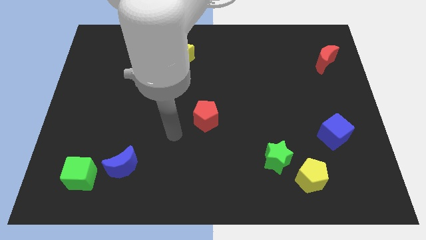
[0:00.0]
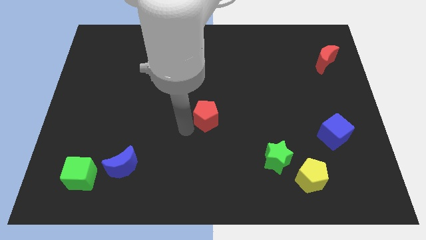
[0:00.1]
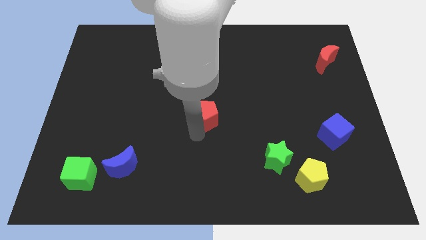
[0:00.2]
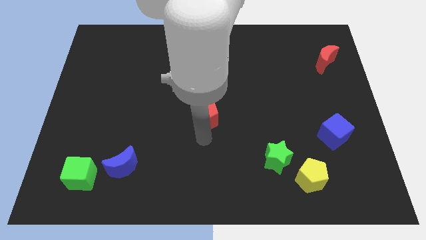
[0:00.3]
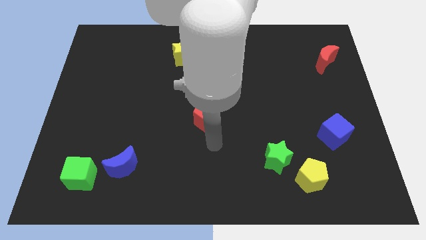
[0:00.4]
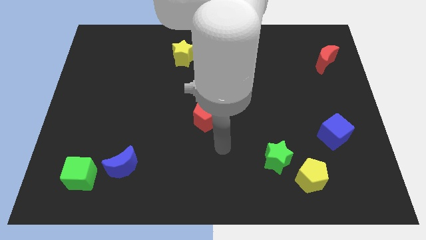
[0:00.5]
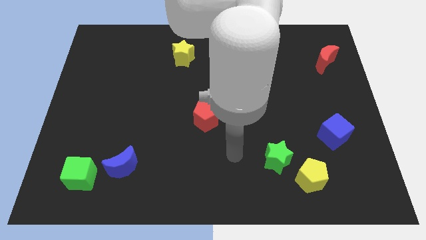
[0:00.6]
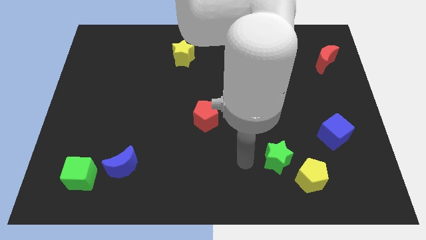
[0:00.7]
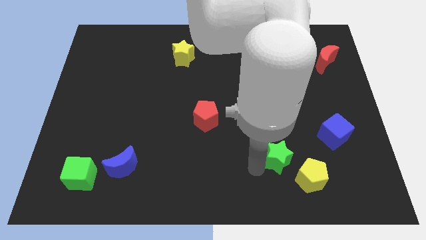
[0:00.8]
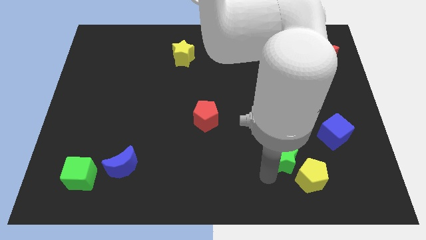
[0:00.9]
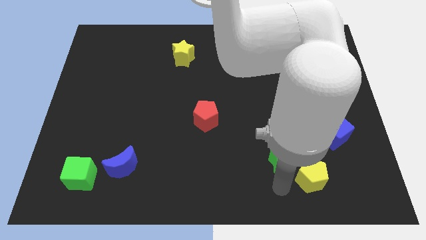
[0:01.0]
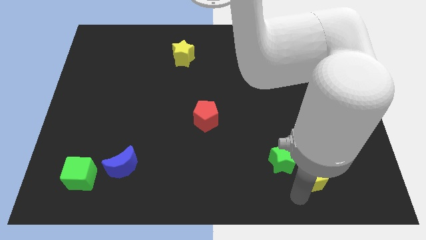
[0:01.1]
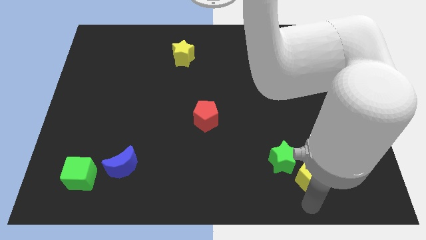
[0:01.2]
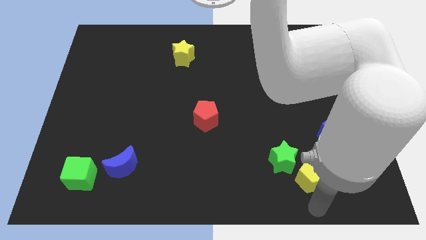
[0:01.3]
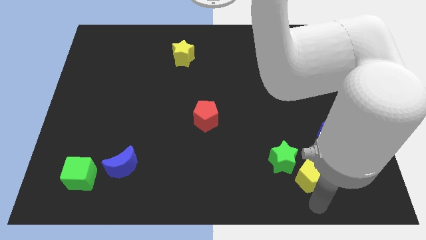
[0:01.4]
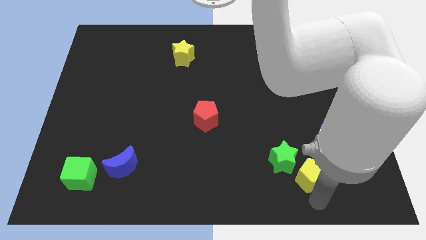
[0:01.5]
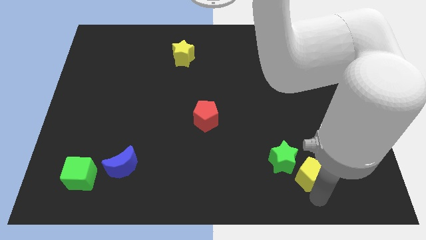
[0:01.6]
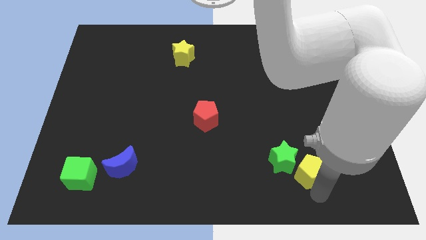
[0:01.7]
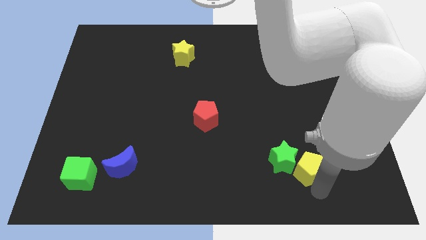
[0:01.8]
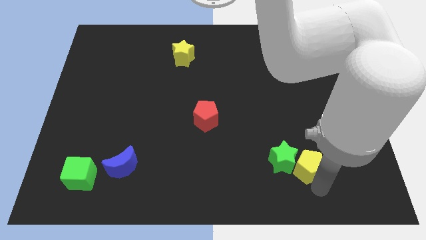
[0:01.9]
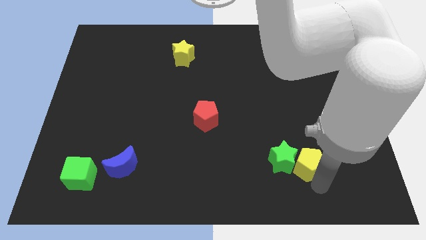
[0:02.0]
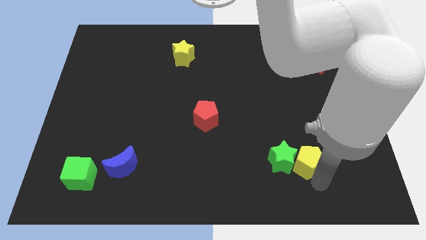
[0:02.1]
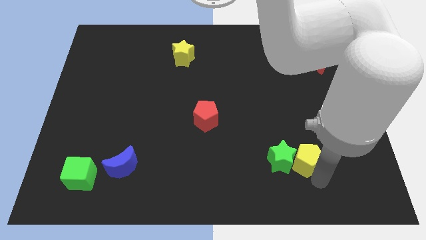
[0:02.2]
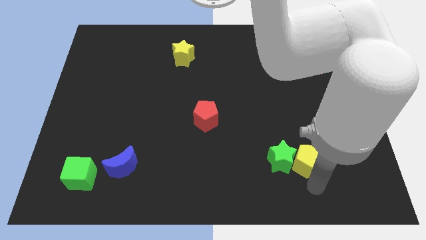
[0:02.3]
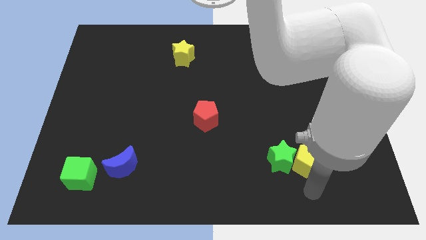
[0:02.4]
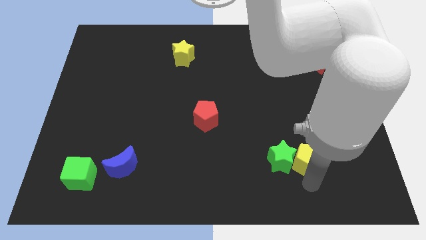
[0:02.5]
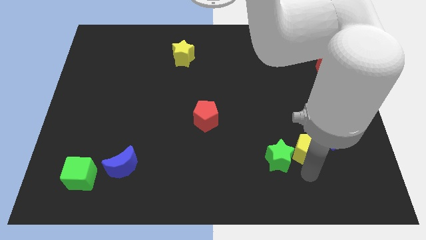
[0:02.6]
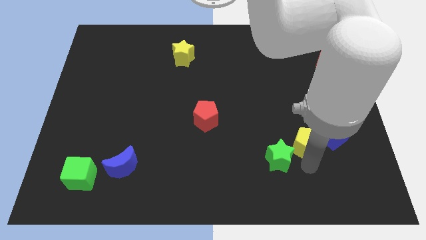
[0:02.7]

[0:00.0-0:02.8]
slightly push the yellow pentagon up

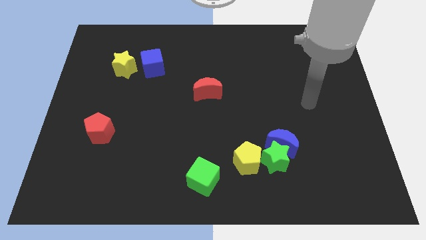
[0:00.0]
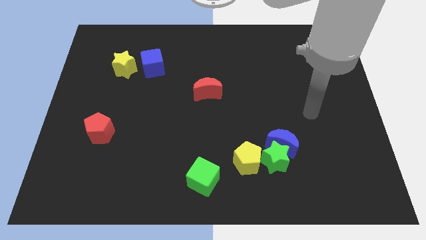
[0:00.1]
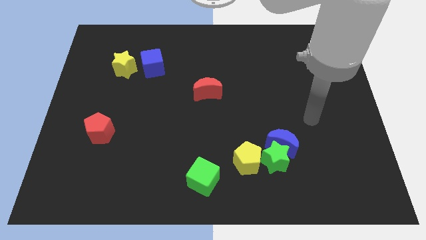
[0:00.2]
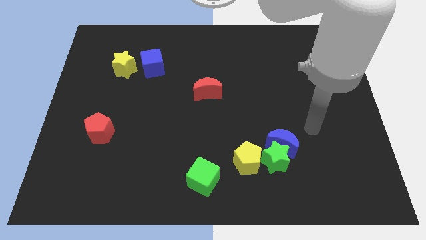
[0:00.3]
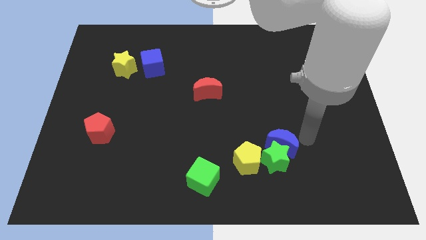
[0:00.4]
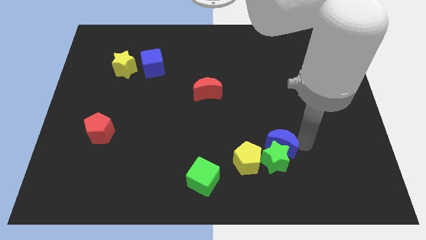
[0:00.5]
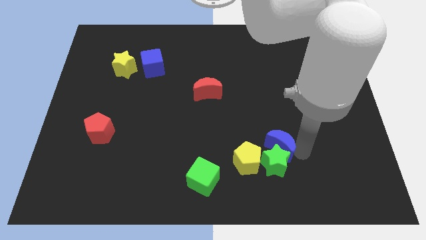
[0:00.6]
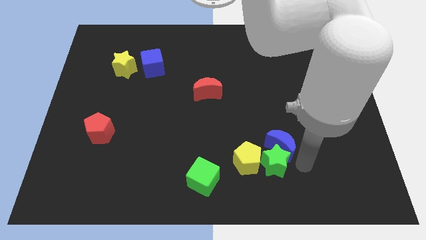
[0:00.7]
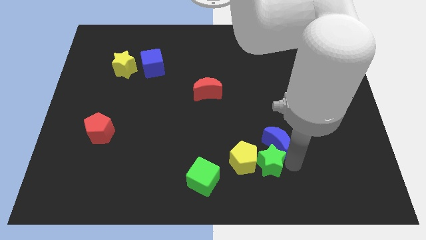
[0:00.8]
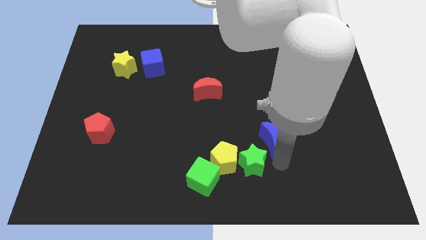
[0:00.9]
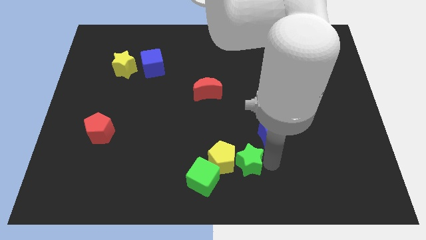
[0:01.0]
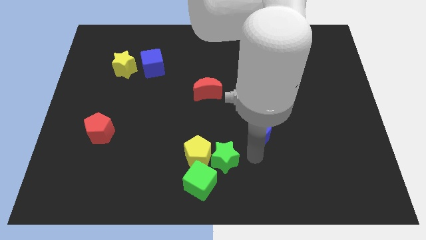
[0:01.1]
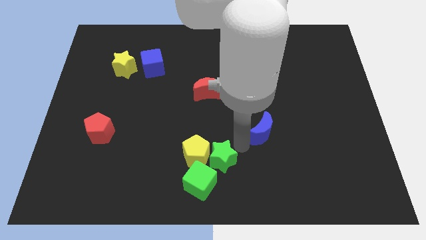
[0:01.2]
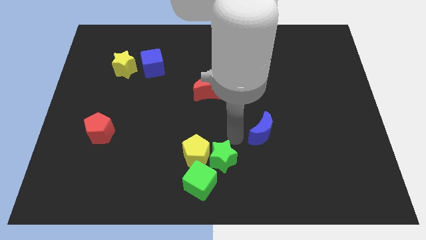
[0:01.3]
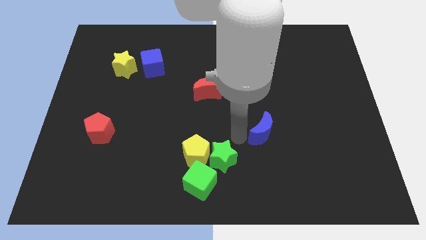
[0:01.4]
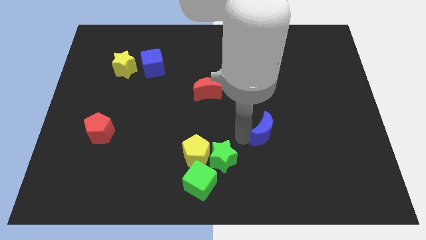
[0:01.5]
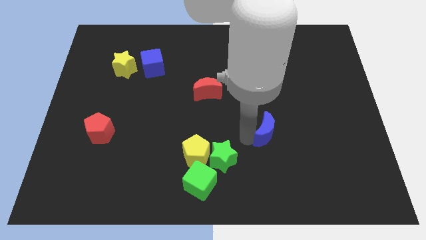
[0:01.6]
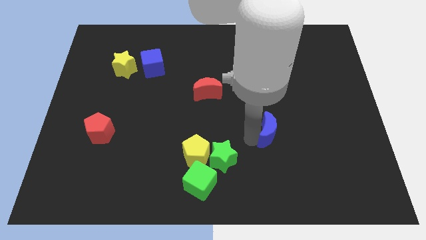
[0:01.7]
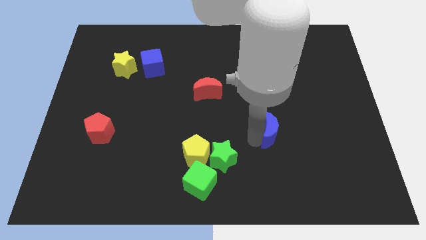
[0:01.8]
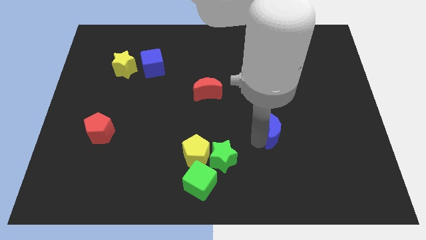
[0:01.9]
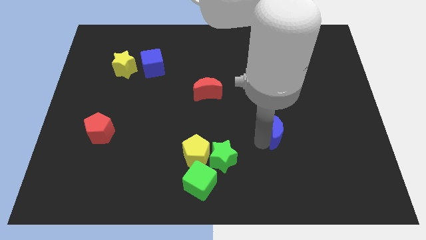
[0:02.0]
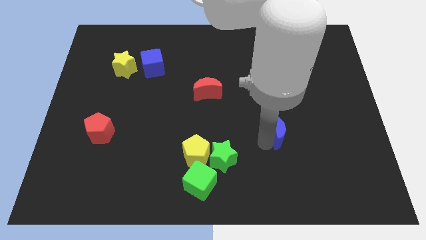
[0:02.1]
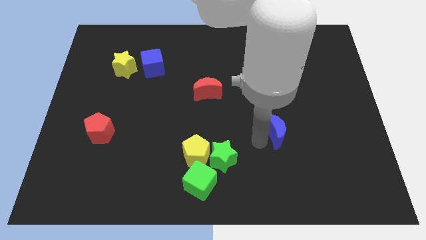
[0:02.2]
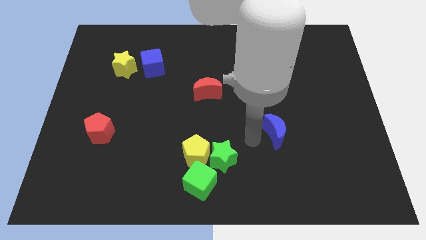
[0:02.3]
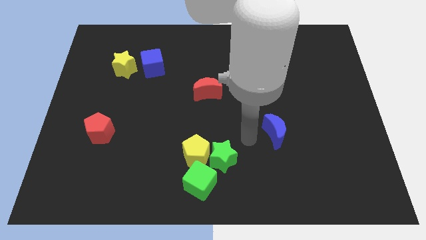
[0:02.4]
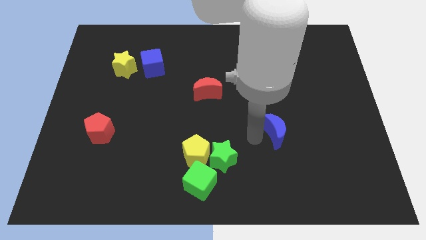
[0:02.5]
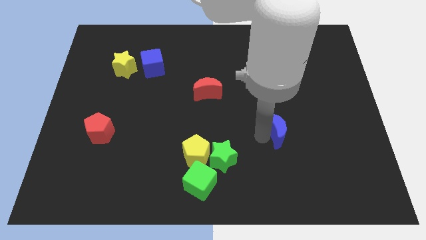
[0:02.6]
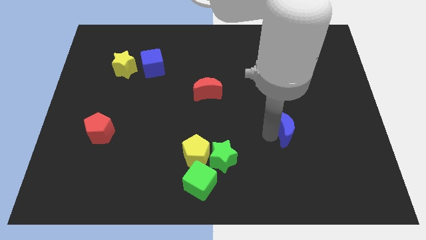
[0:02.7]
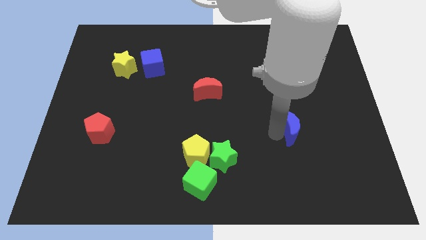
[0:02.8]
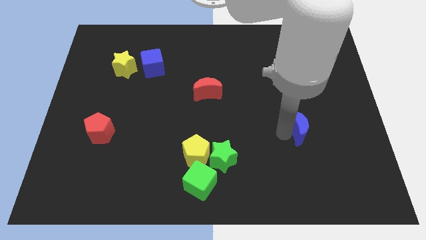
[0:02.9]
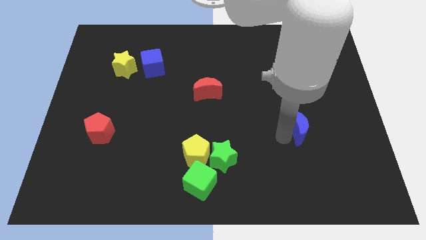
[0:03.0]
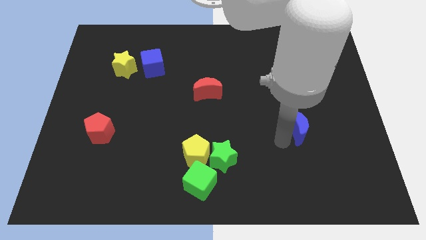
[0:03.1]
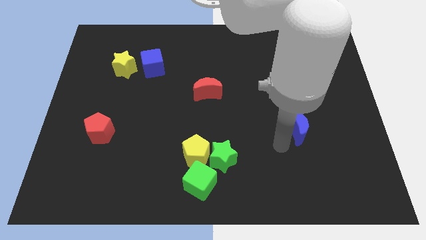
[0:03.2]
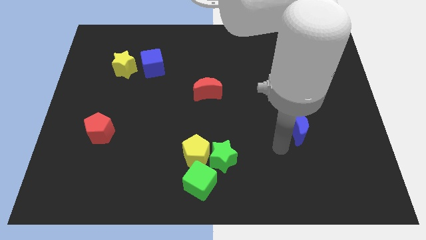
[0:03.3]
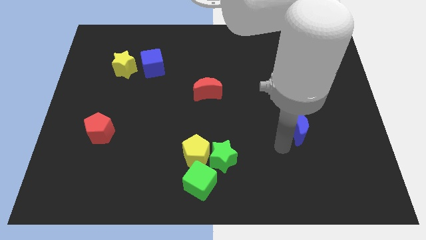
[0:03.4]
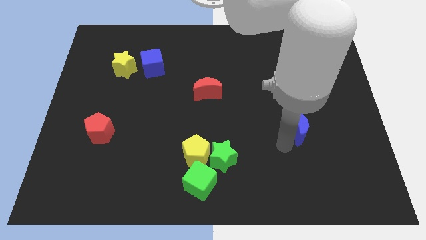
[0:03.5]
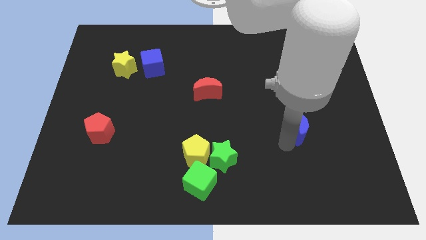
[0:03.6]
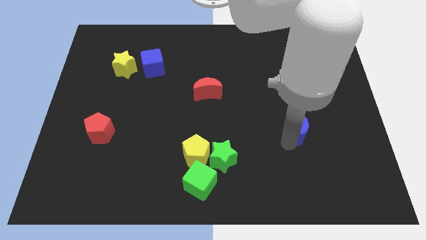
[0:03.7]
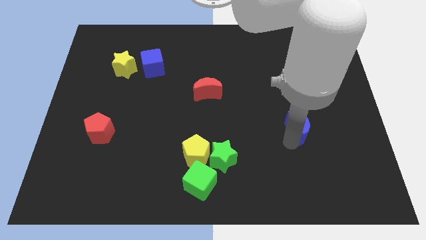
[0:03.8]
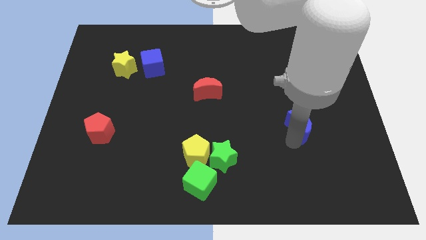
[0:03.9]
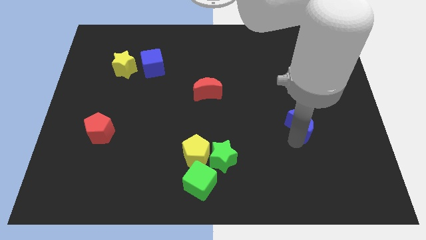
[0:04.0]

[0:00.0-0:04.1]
slightly slide the blue moon up and right

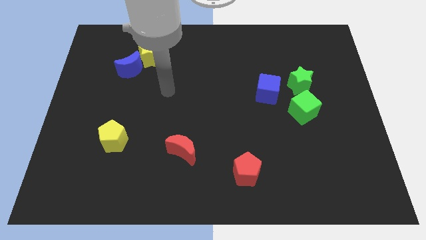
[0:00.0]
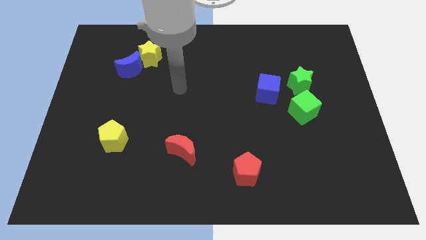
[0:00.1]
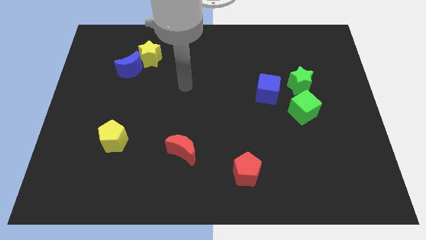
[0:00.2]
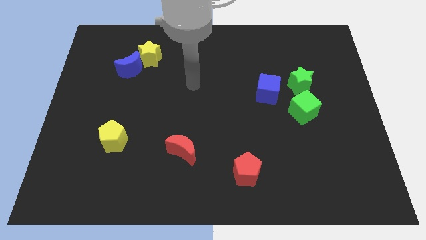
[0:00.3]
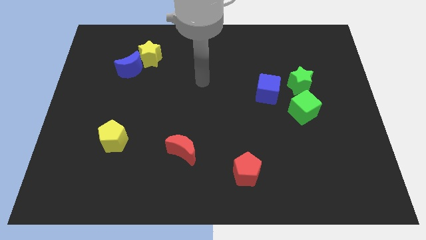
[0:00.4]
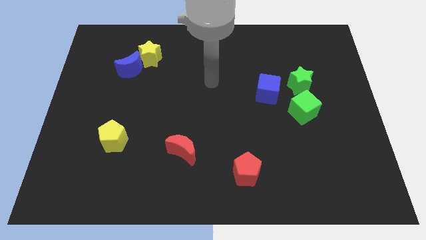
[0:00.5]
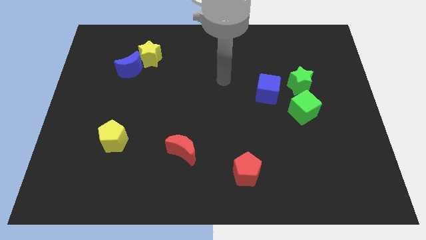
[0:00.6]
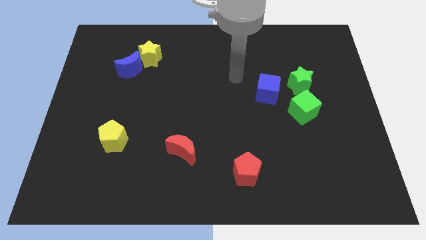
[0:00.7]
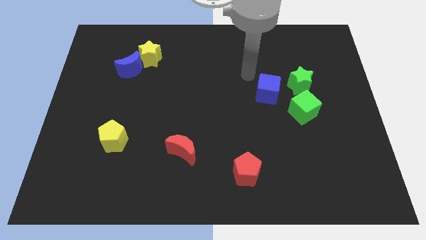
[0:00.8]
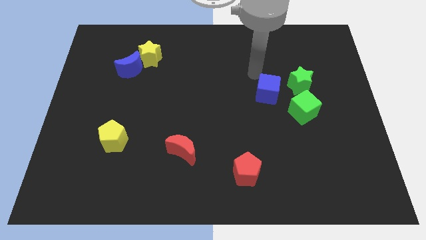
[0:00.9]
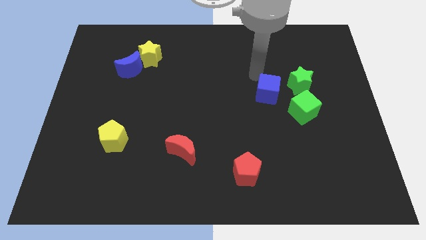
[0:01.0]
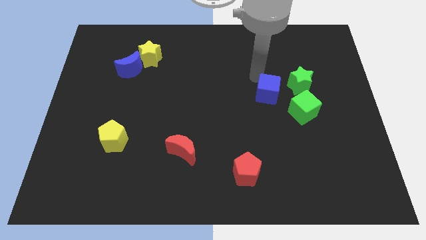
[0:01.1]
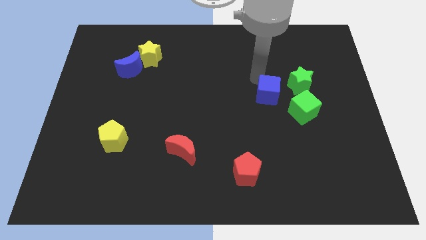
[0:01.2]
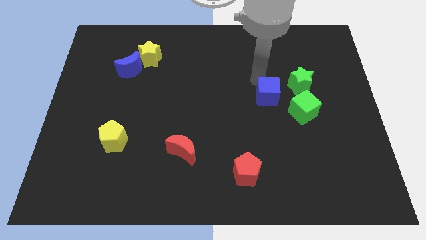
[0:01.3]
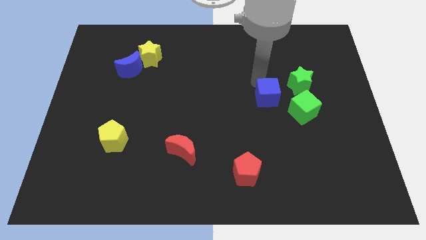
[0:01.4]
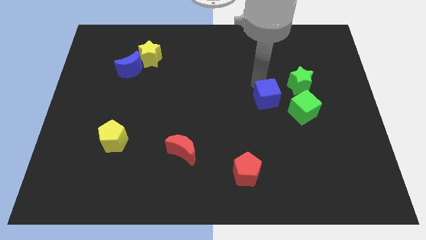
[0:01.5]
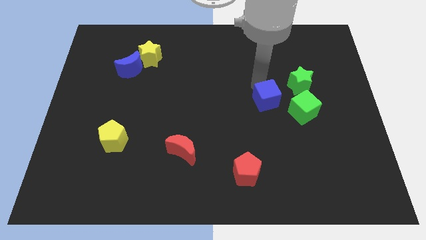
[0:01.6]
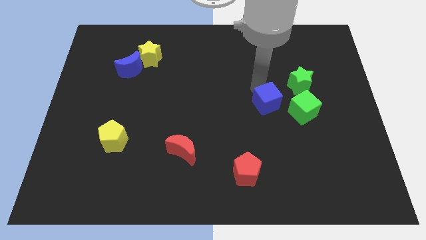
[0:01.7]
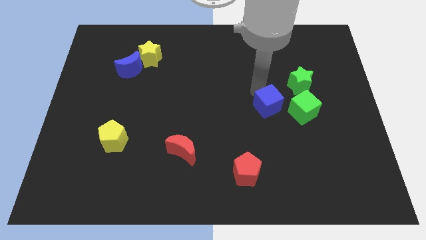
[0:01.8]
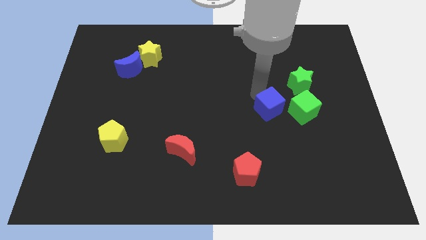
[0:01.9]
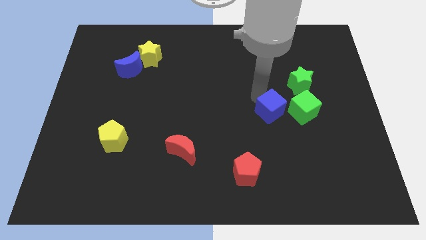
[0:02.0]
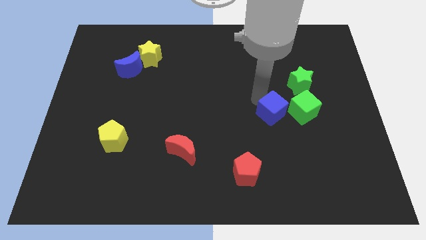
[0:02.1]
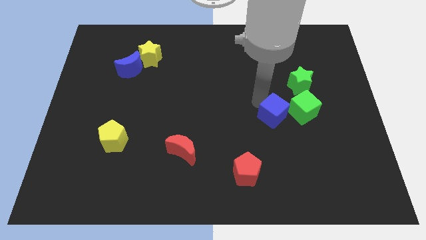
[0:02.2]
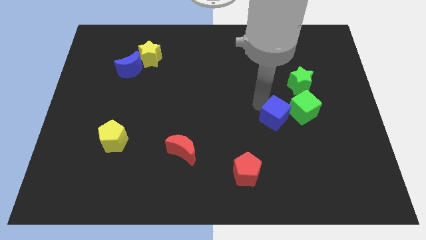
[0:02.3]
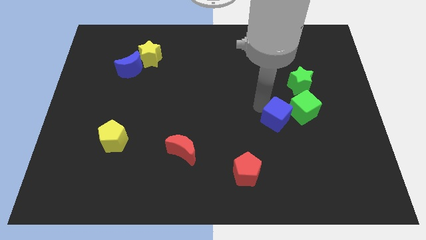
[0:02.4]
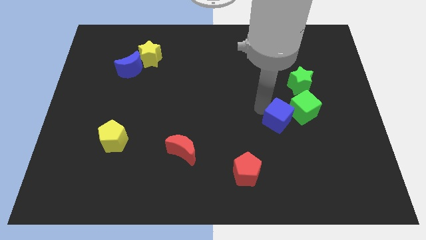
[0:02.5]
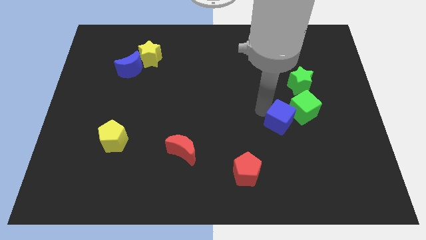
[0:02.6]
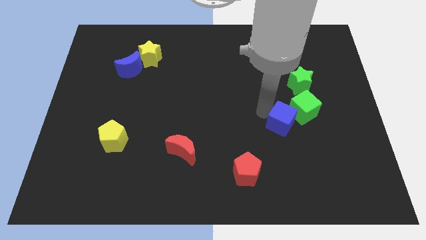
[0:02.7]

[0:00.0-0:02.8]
slide the blue cube a little downwards and to the right
